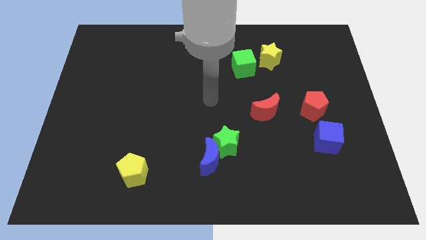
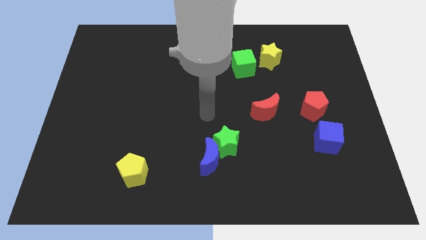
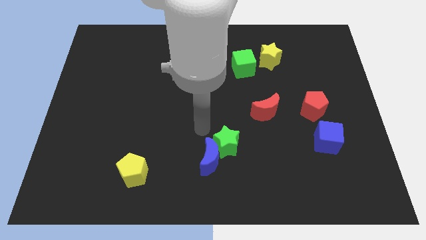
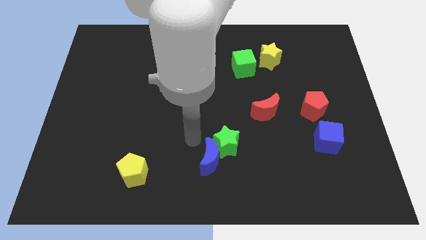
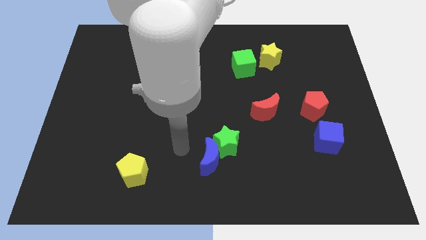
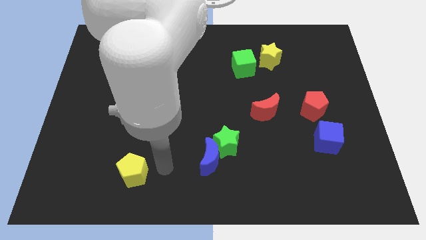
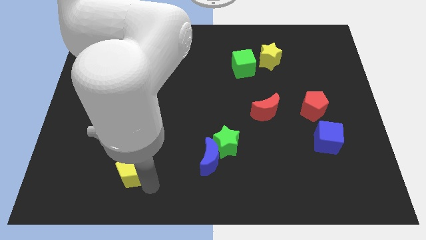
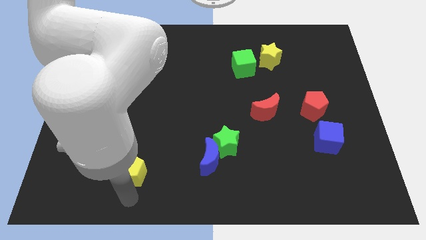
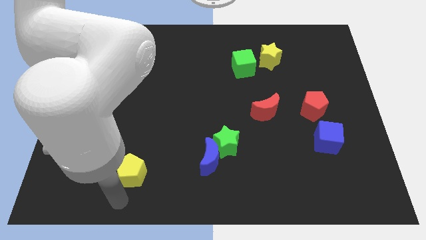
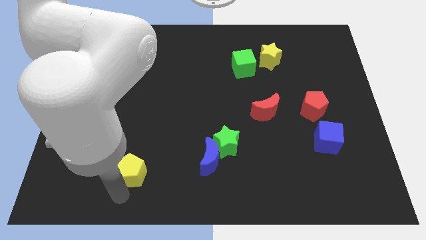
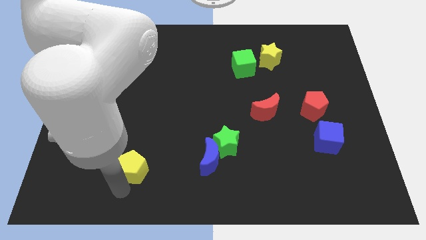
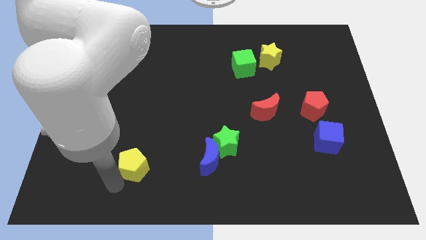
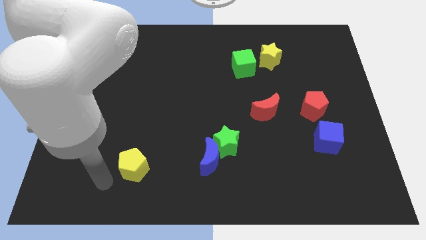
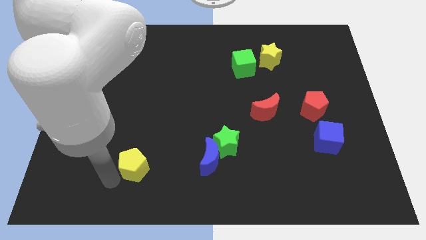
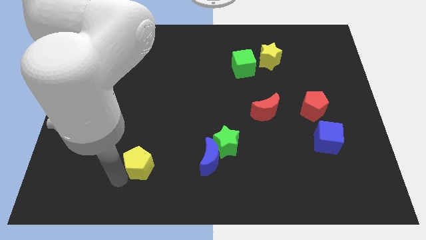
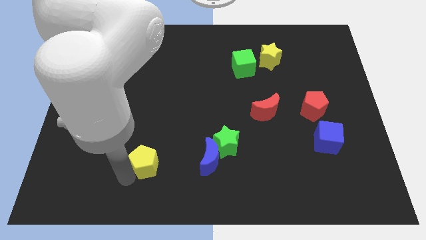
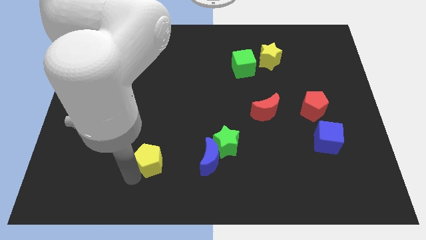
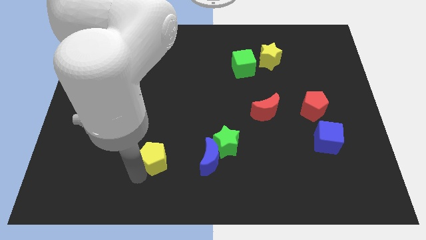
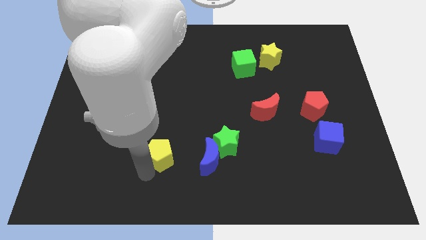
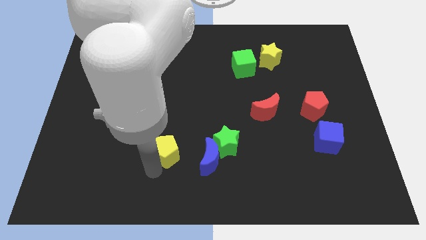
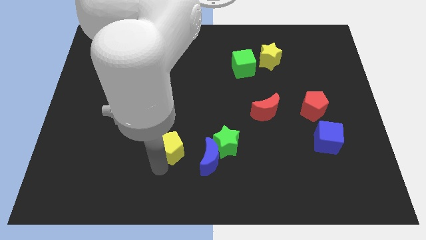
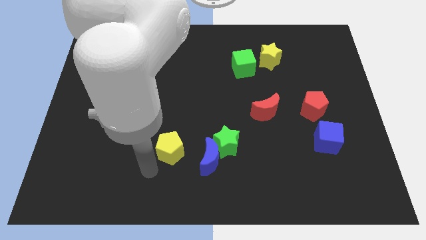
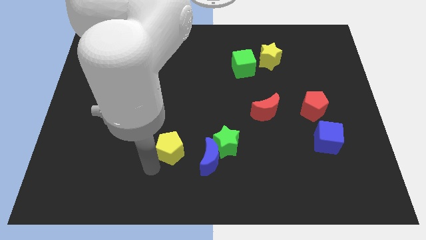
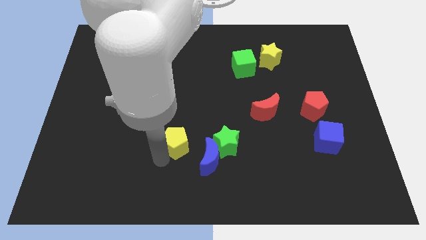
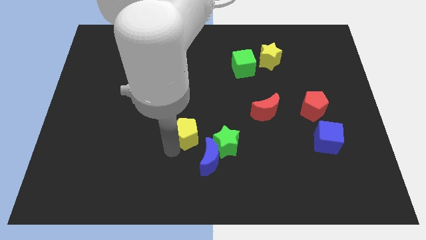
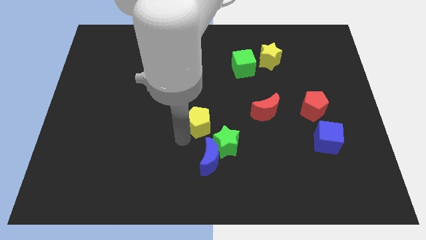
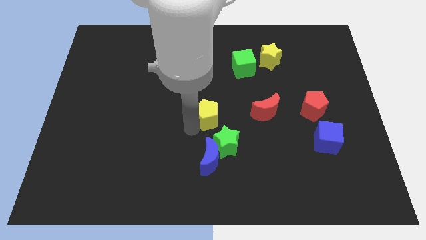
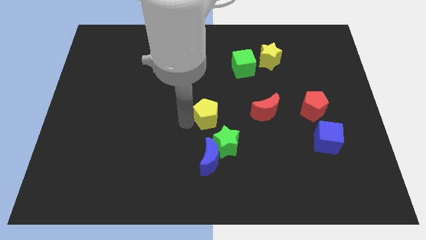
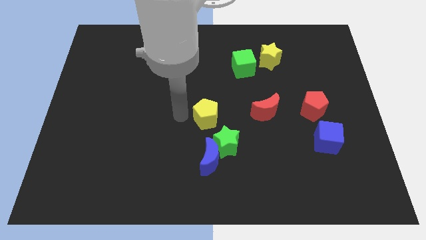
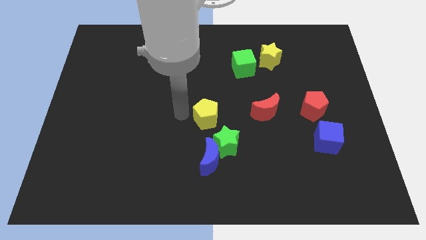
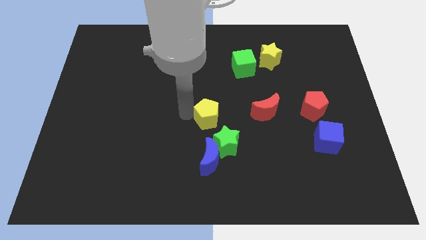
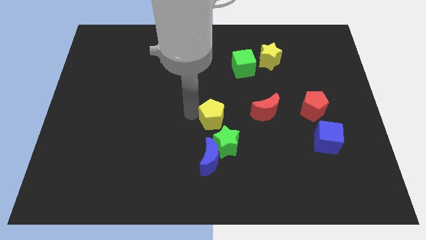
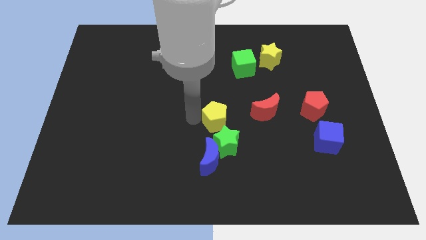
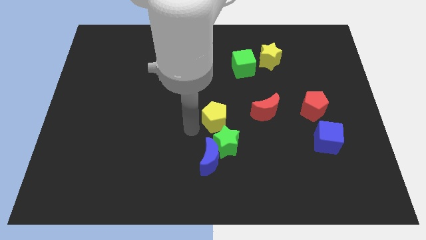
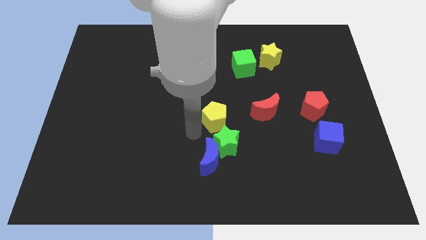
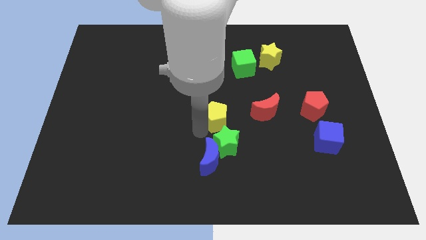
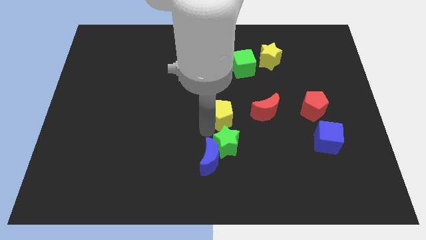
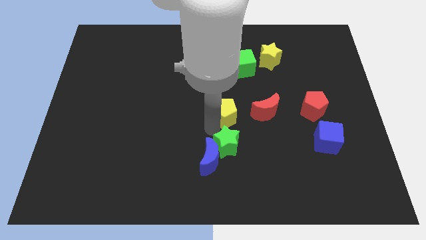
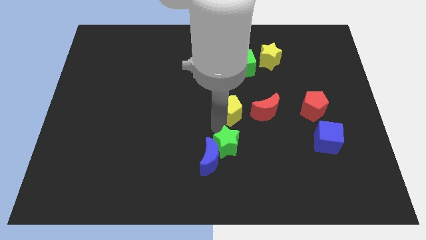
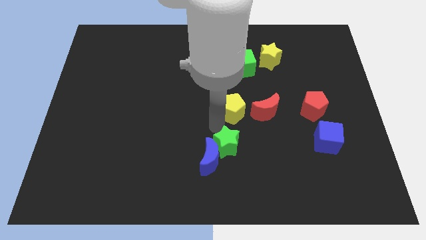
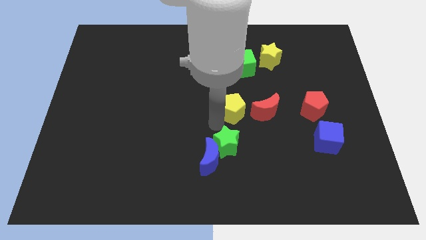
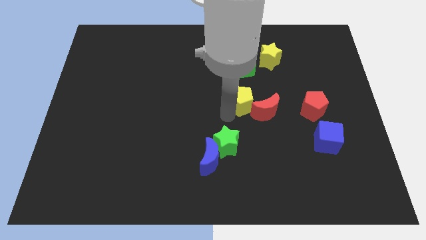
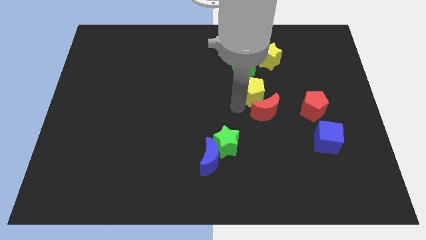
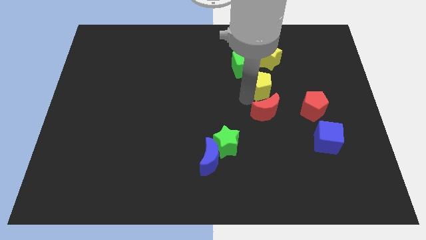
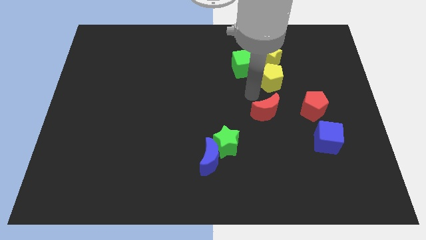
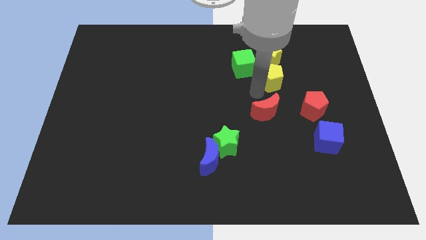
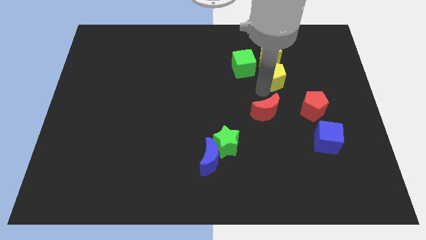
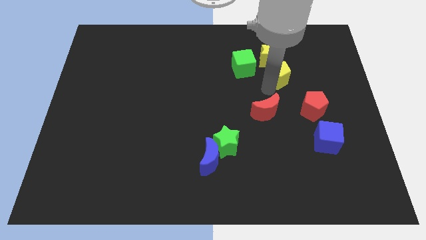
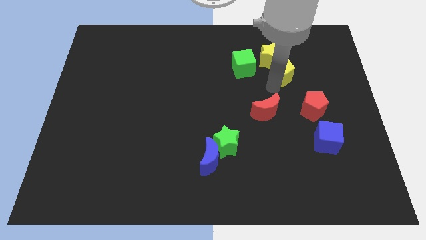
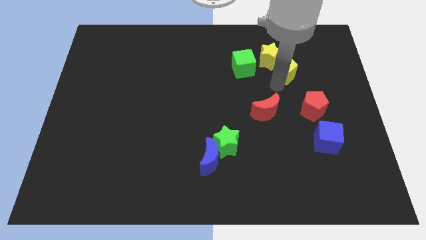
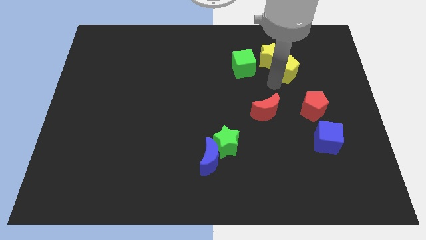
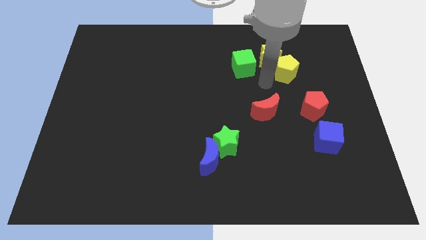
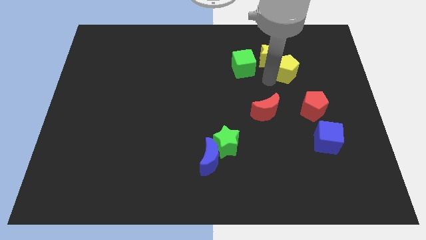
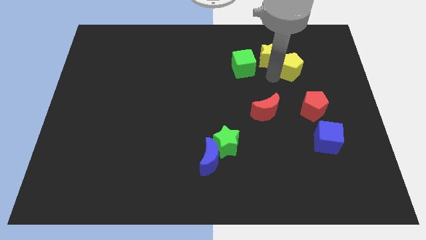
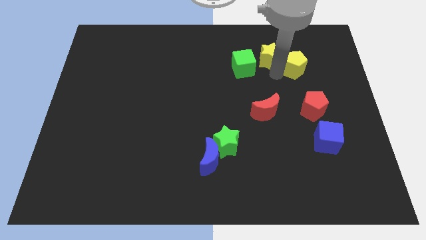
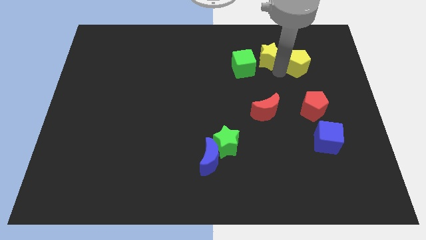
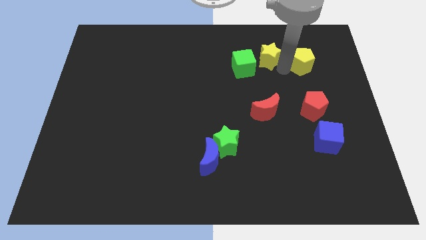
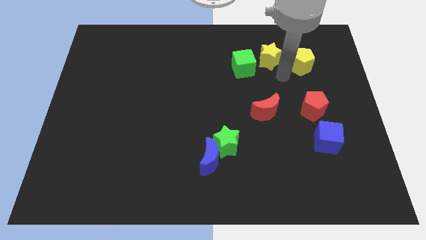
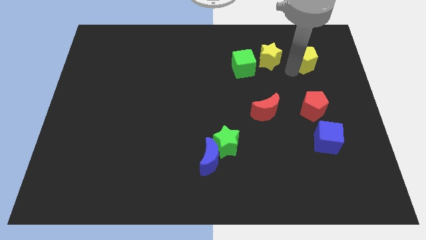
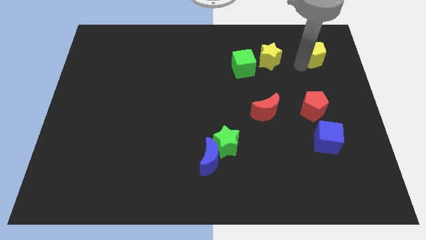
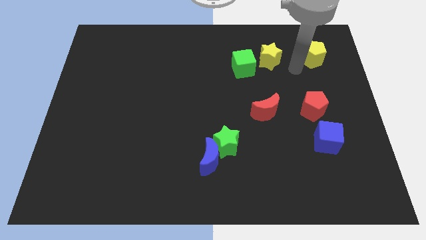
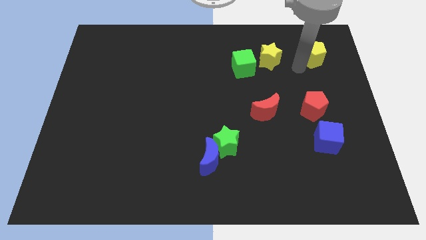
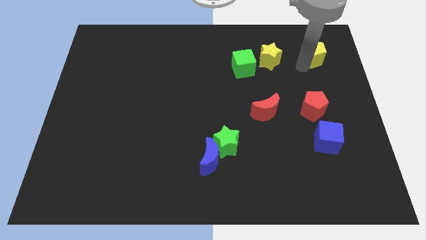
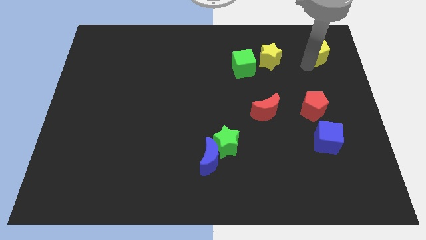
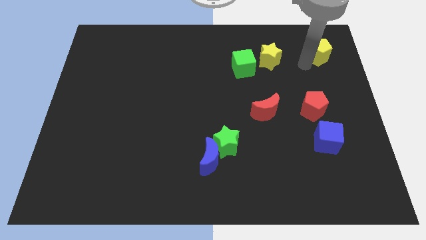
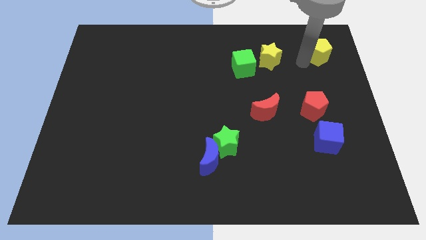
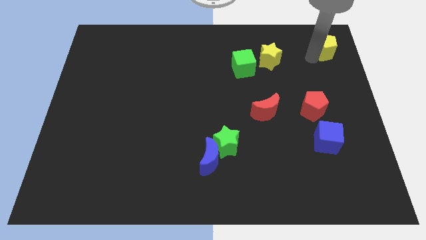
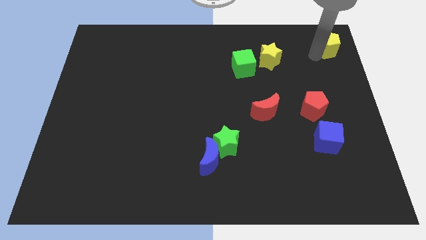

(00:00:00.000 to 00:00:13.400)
push the yellow pentagon to the top right corner
